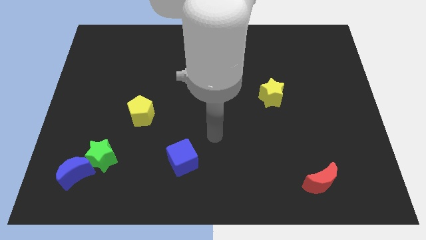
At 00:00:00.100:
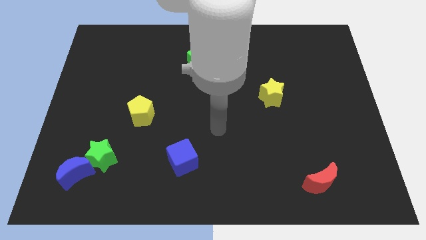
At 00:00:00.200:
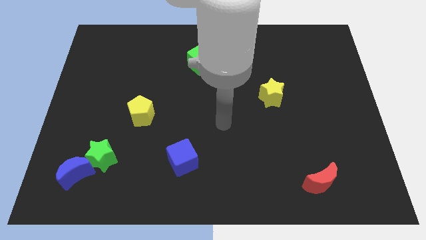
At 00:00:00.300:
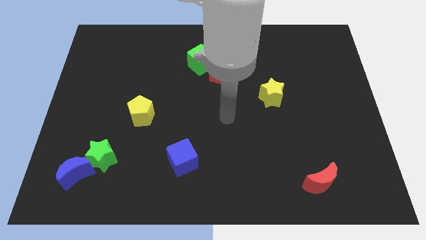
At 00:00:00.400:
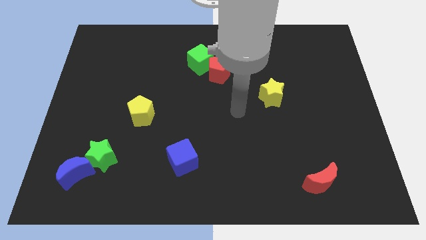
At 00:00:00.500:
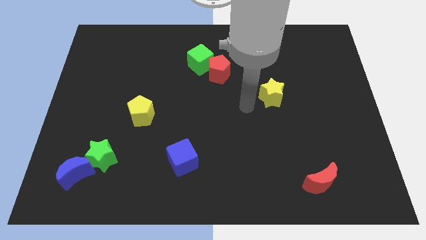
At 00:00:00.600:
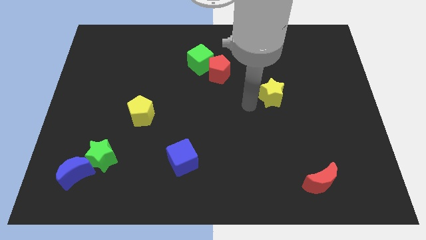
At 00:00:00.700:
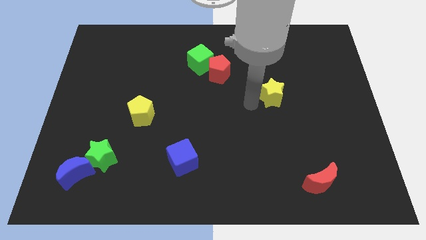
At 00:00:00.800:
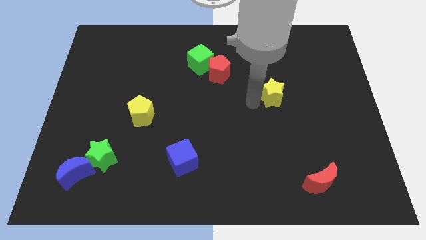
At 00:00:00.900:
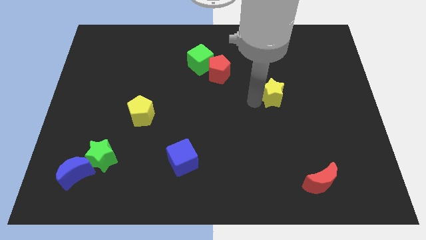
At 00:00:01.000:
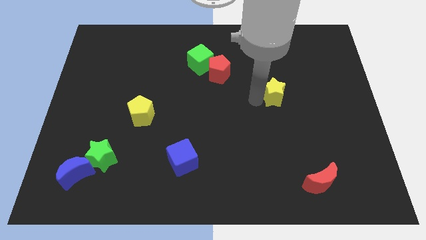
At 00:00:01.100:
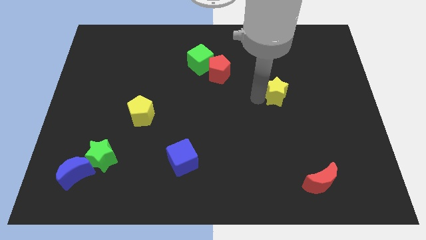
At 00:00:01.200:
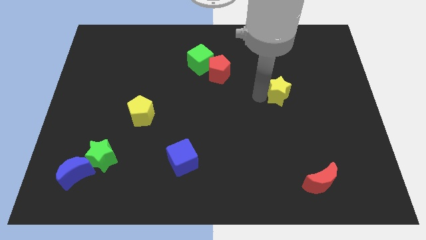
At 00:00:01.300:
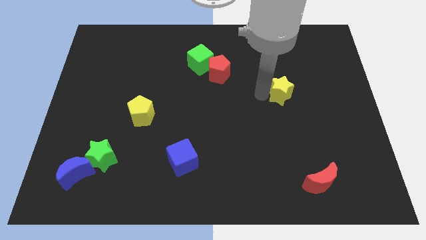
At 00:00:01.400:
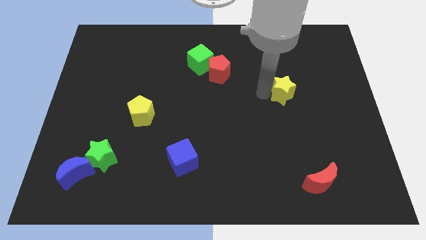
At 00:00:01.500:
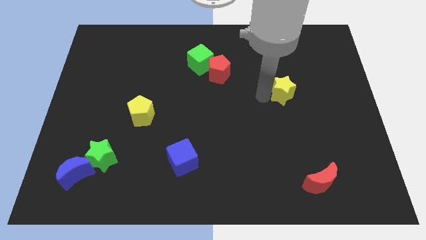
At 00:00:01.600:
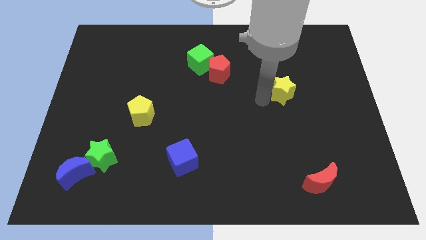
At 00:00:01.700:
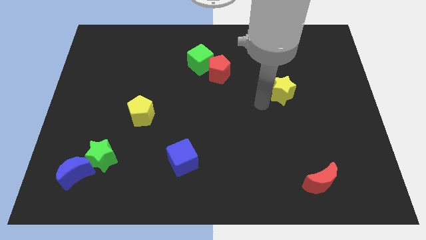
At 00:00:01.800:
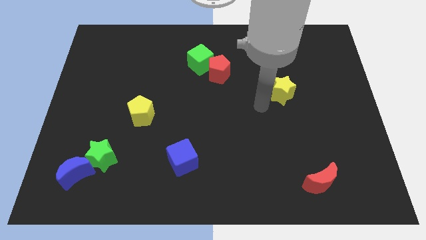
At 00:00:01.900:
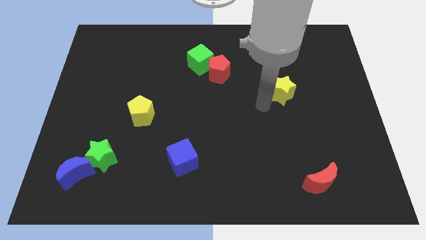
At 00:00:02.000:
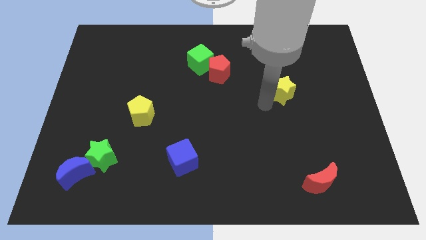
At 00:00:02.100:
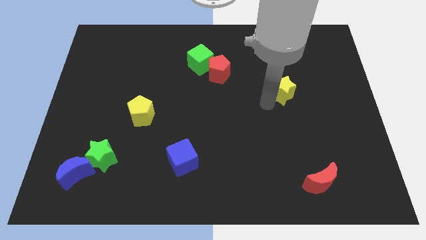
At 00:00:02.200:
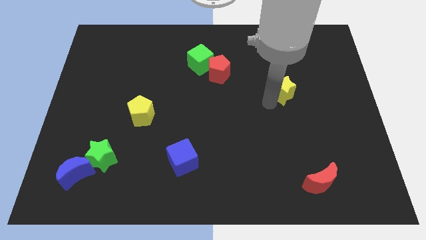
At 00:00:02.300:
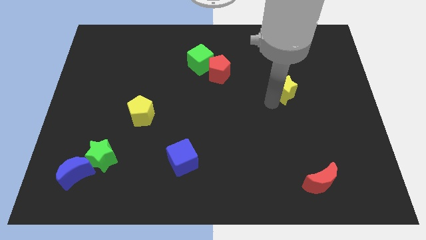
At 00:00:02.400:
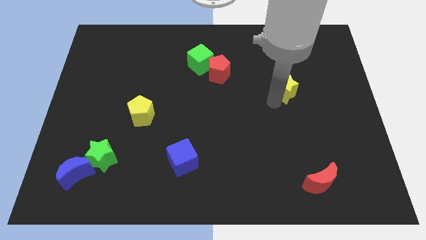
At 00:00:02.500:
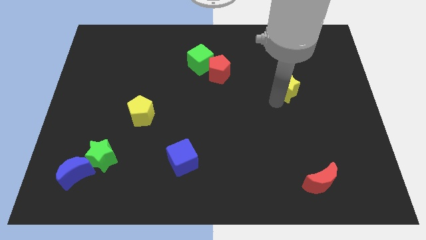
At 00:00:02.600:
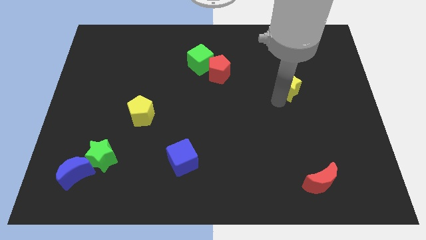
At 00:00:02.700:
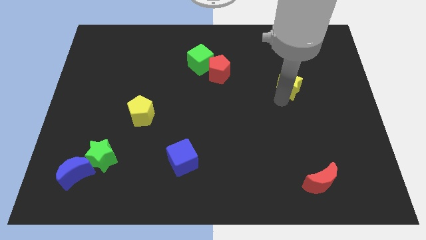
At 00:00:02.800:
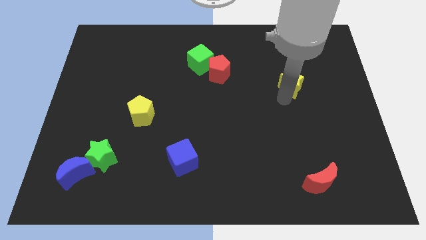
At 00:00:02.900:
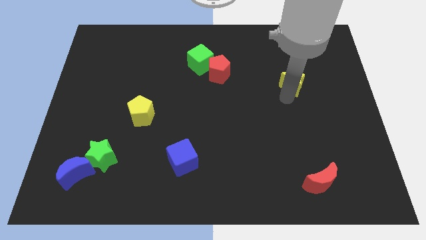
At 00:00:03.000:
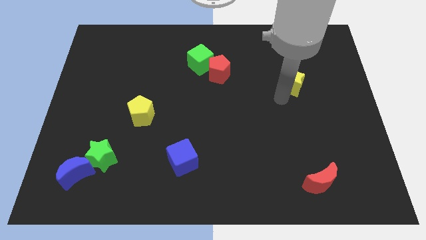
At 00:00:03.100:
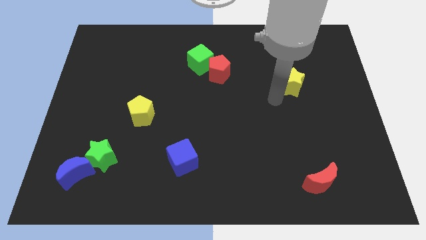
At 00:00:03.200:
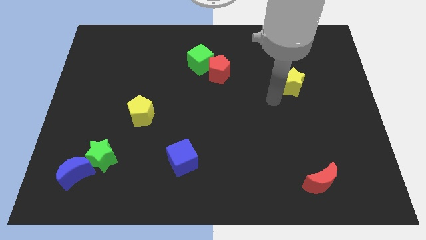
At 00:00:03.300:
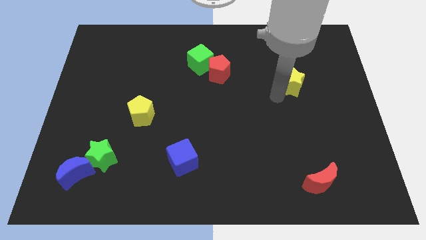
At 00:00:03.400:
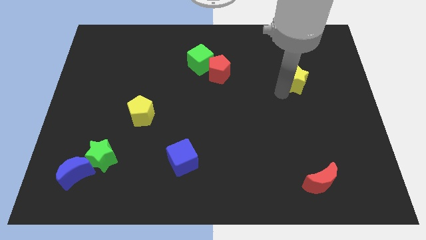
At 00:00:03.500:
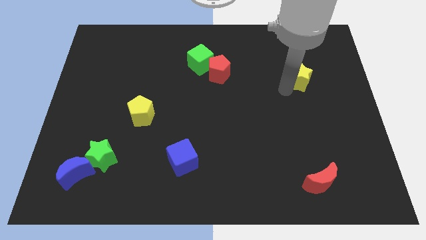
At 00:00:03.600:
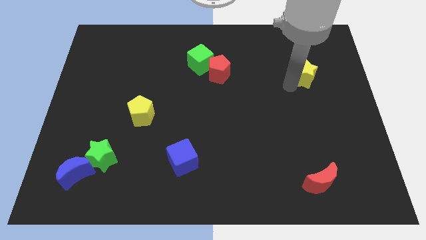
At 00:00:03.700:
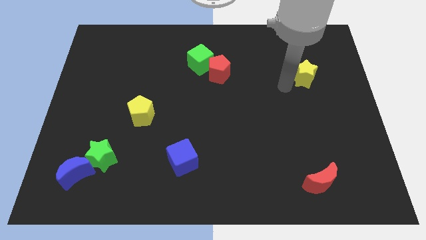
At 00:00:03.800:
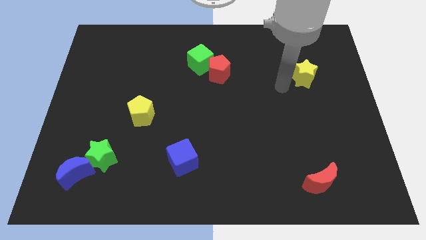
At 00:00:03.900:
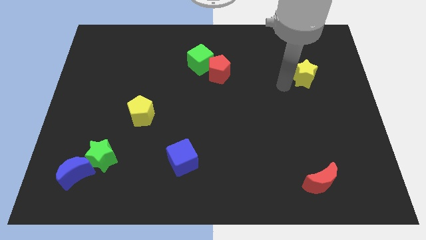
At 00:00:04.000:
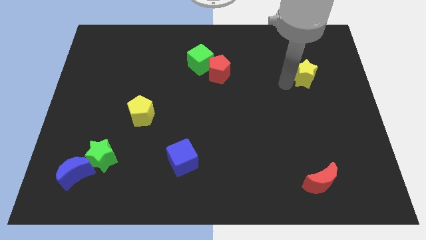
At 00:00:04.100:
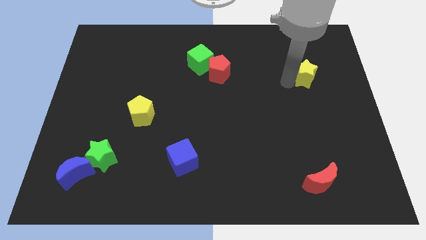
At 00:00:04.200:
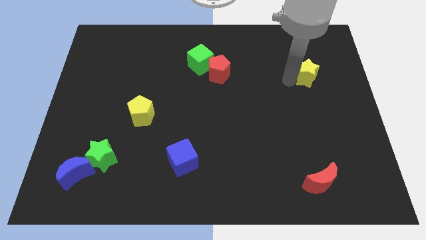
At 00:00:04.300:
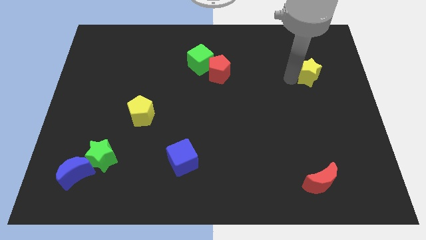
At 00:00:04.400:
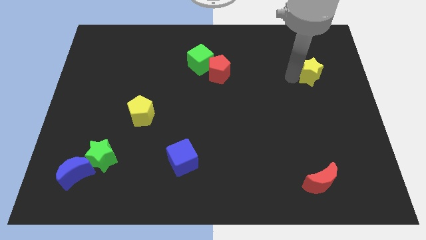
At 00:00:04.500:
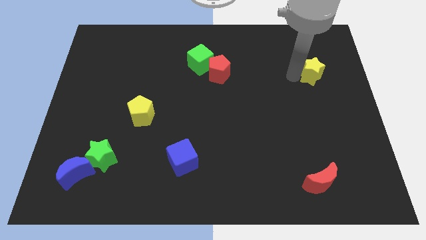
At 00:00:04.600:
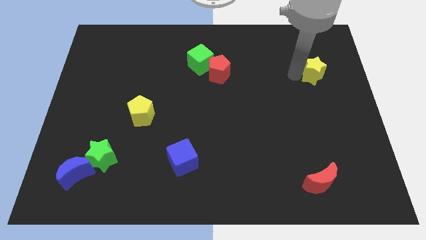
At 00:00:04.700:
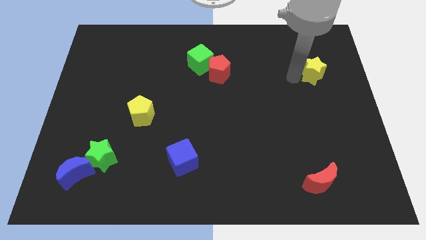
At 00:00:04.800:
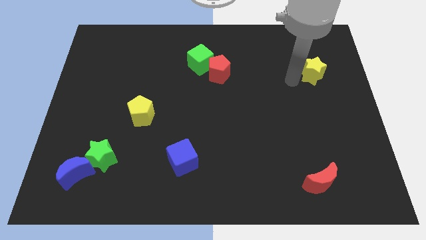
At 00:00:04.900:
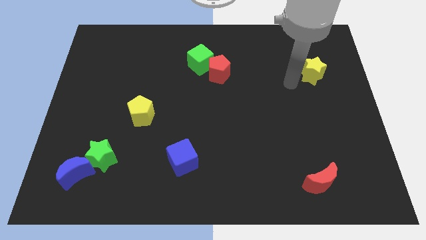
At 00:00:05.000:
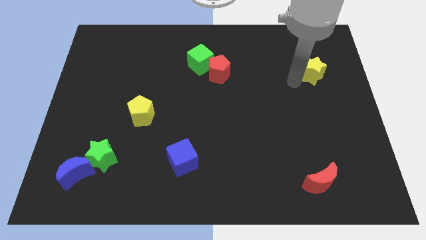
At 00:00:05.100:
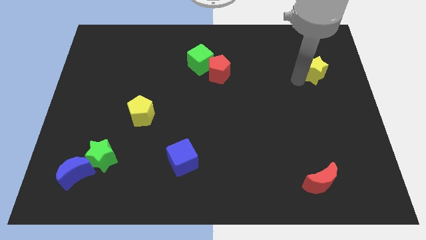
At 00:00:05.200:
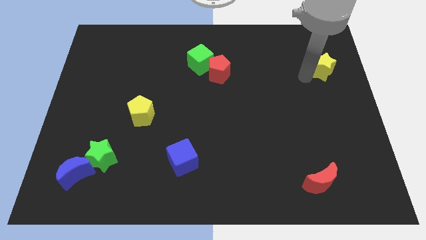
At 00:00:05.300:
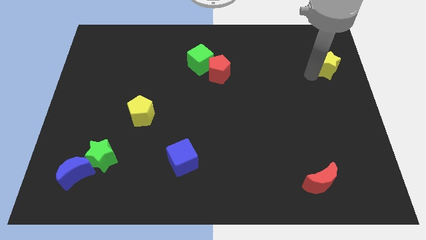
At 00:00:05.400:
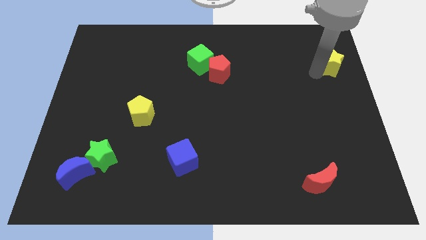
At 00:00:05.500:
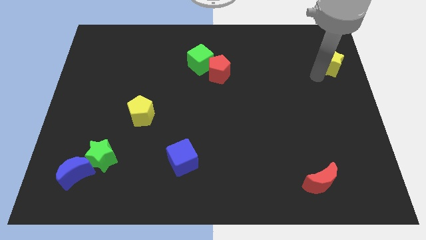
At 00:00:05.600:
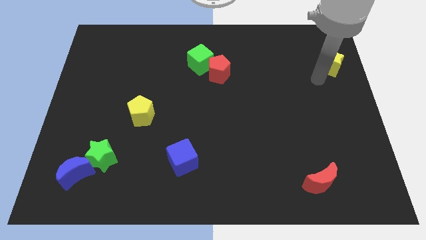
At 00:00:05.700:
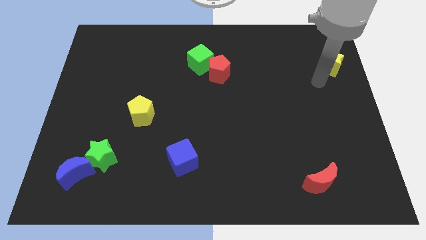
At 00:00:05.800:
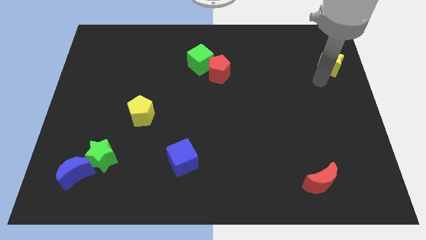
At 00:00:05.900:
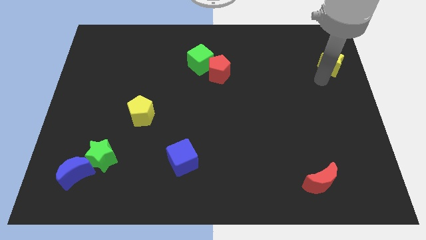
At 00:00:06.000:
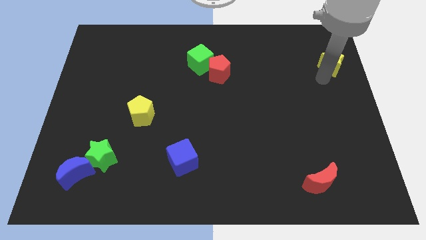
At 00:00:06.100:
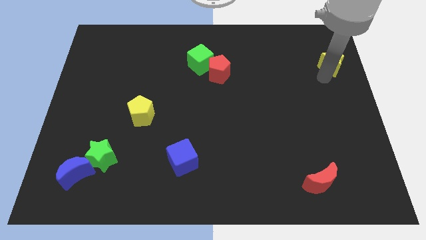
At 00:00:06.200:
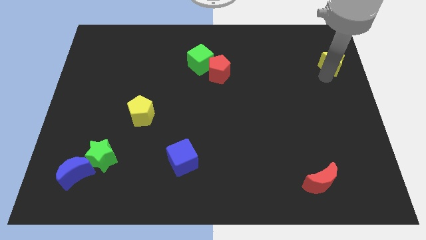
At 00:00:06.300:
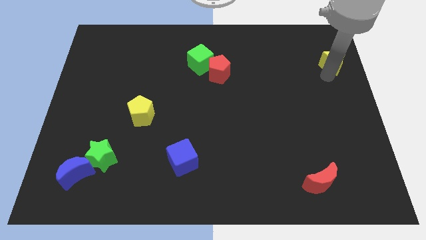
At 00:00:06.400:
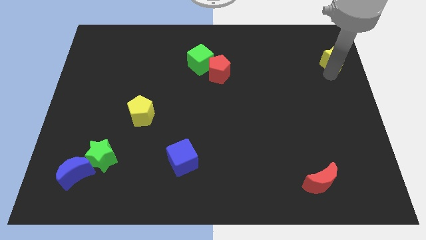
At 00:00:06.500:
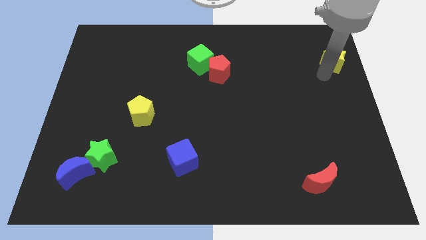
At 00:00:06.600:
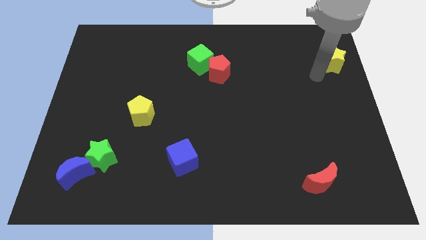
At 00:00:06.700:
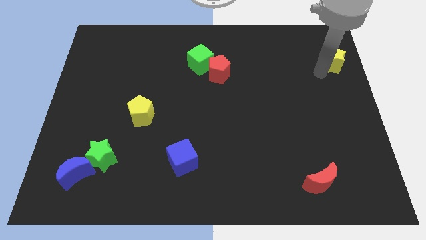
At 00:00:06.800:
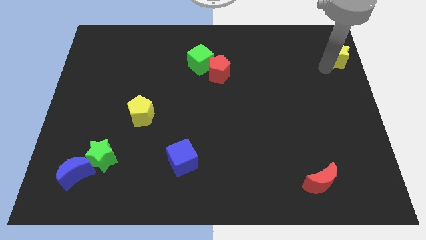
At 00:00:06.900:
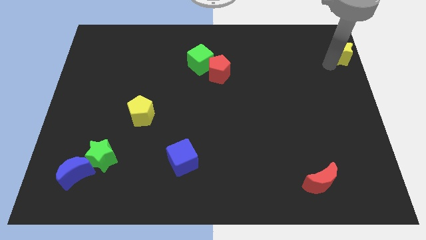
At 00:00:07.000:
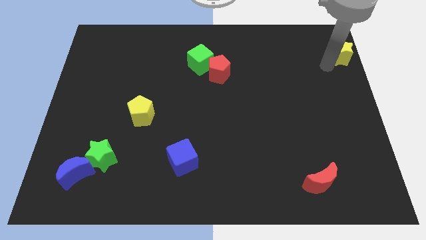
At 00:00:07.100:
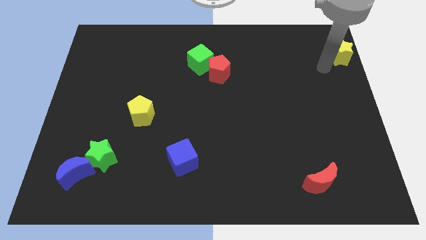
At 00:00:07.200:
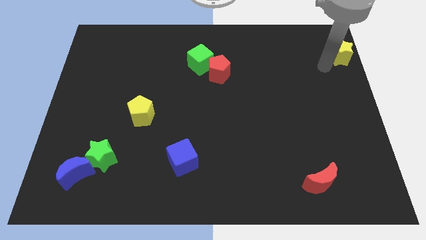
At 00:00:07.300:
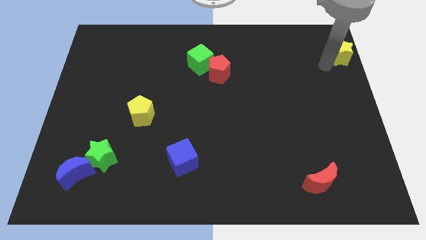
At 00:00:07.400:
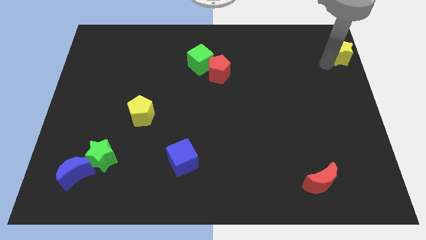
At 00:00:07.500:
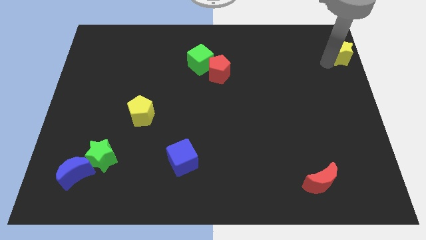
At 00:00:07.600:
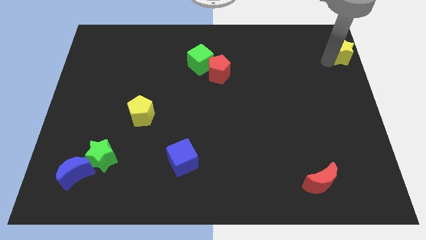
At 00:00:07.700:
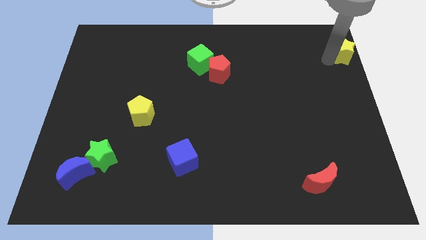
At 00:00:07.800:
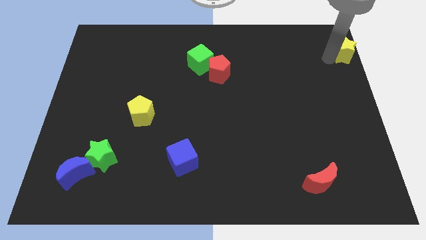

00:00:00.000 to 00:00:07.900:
slide the yellow star to the upper right corner
